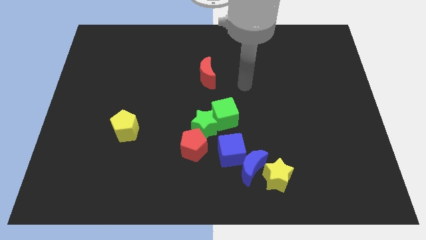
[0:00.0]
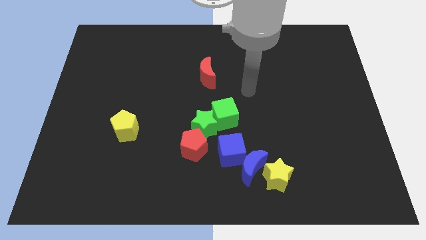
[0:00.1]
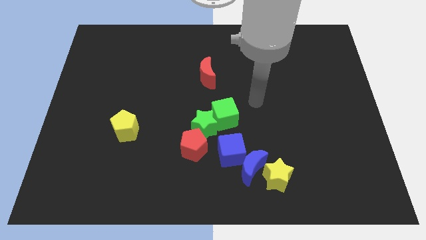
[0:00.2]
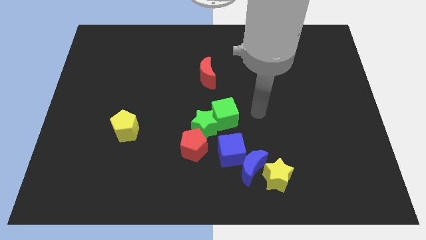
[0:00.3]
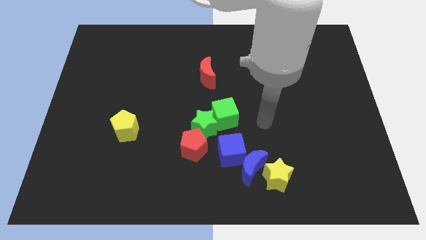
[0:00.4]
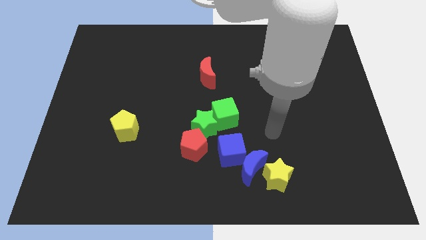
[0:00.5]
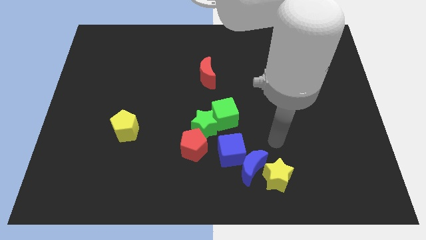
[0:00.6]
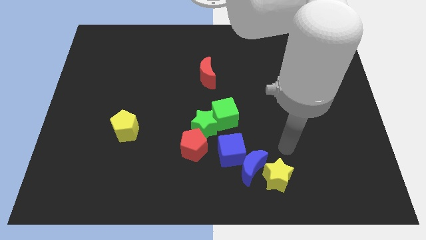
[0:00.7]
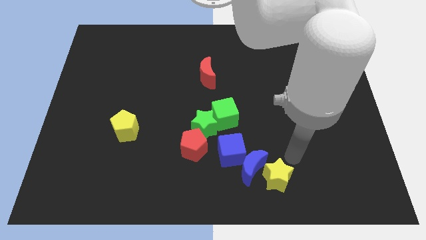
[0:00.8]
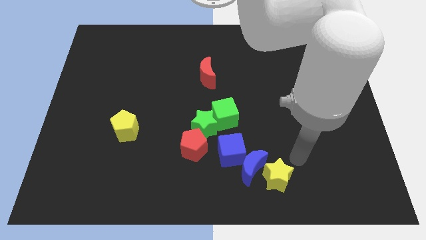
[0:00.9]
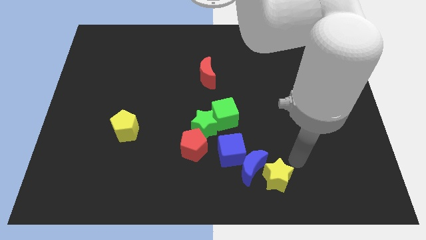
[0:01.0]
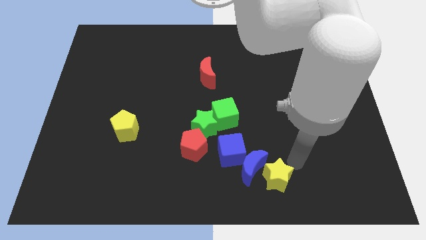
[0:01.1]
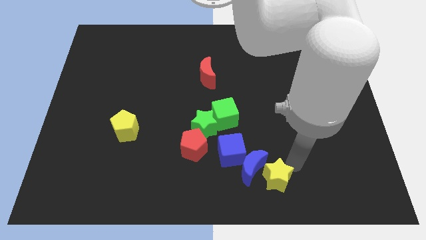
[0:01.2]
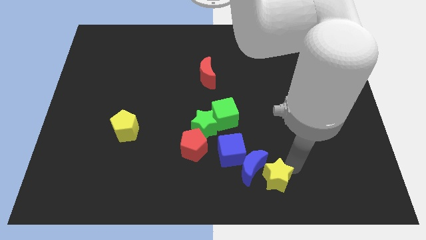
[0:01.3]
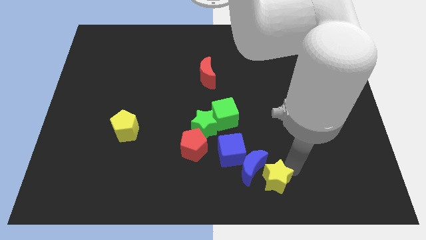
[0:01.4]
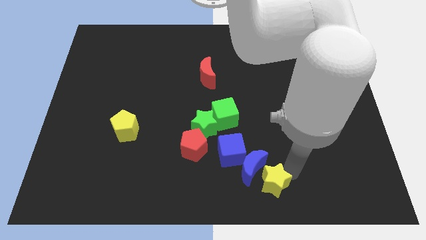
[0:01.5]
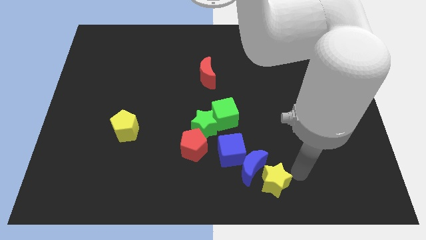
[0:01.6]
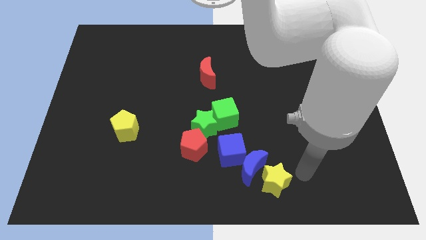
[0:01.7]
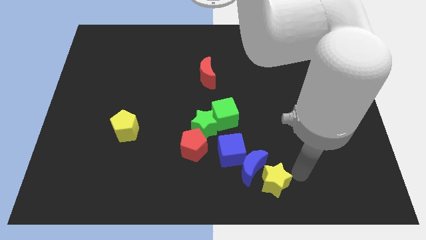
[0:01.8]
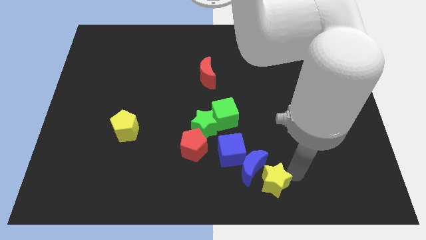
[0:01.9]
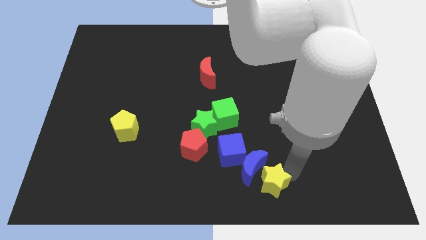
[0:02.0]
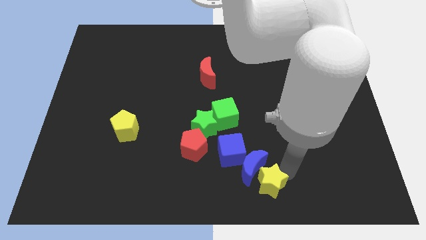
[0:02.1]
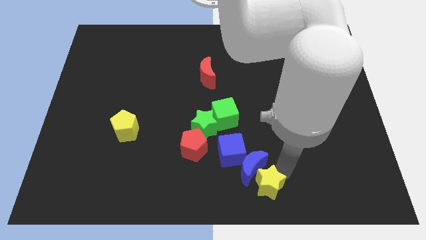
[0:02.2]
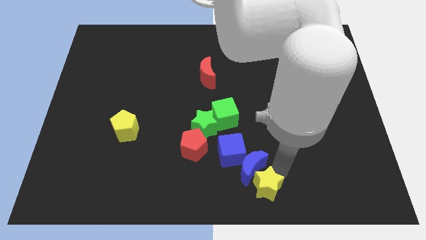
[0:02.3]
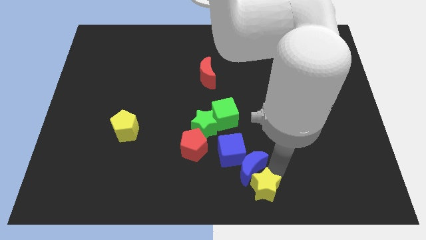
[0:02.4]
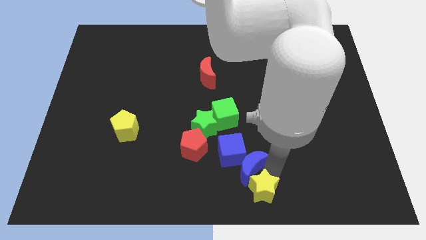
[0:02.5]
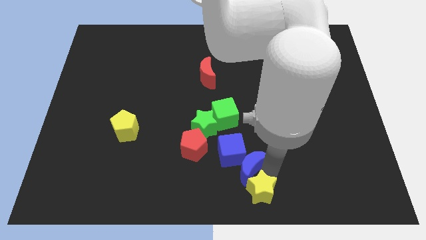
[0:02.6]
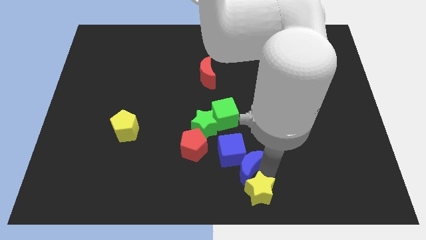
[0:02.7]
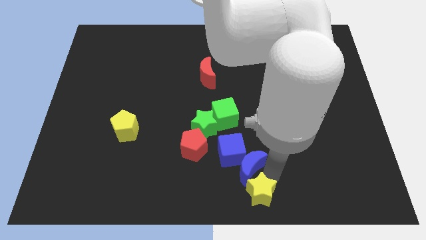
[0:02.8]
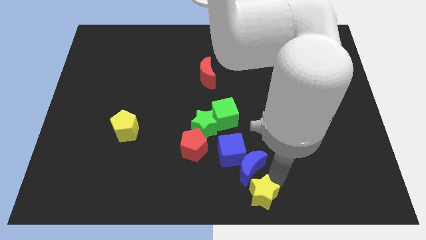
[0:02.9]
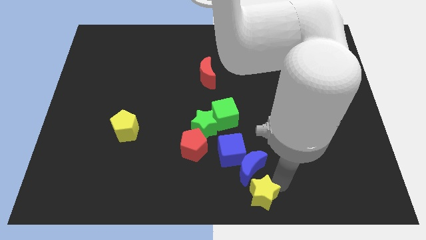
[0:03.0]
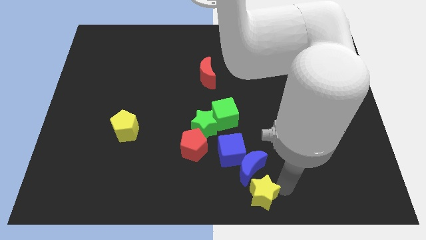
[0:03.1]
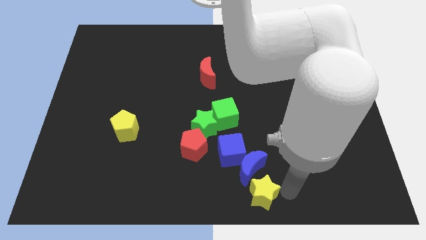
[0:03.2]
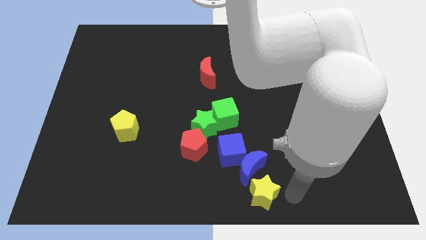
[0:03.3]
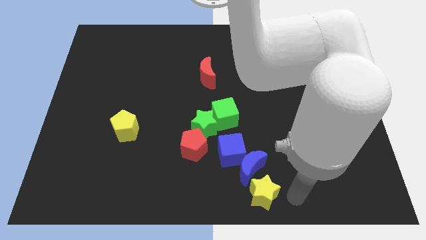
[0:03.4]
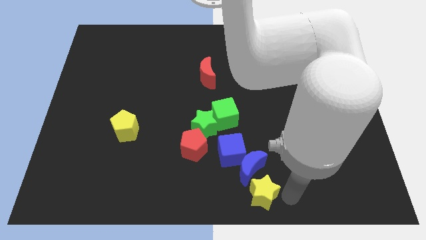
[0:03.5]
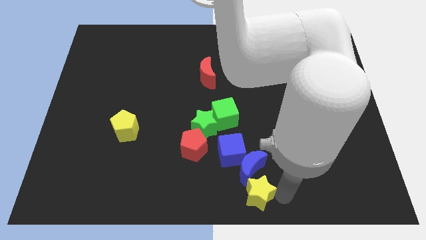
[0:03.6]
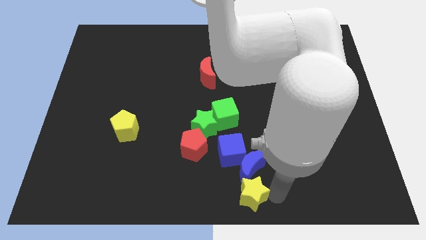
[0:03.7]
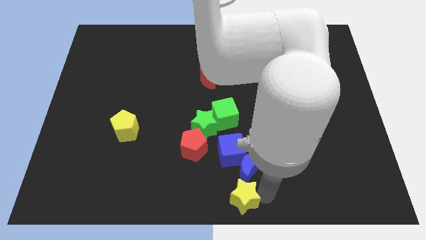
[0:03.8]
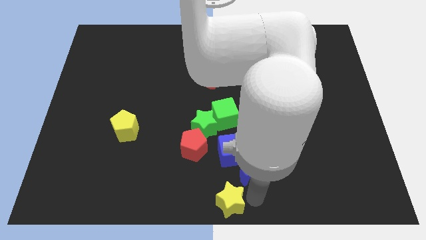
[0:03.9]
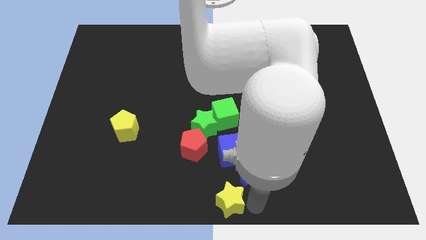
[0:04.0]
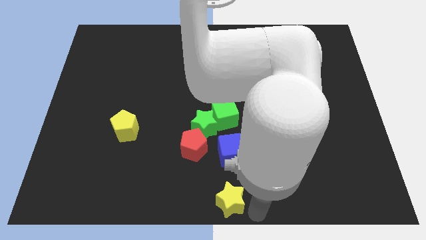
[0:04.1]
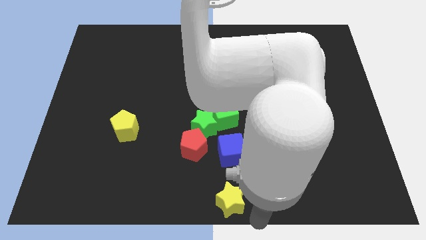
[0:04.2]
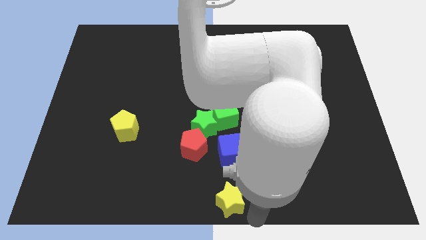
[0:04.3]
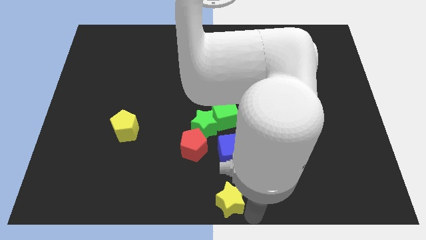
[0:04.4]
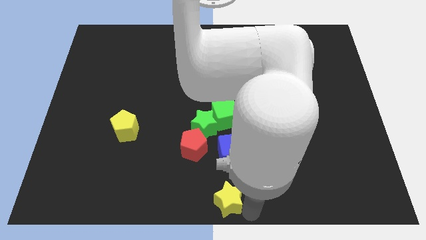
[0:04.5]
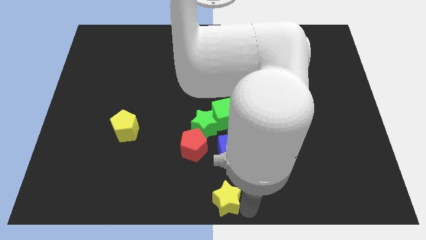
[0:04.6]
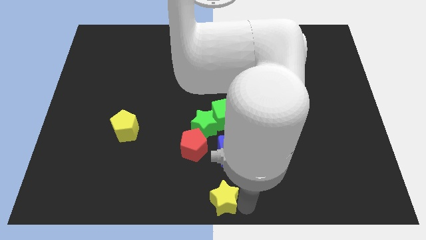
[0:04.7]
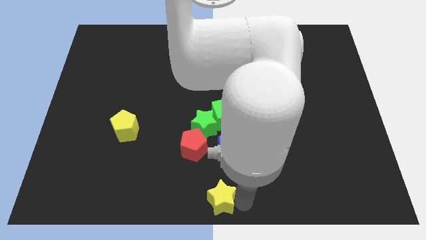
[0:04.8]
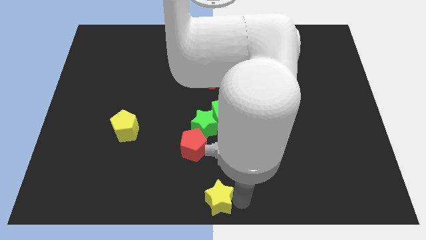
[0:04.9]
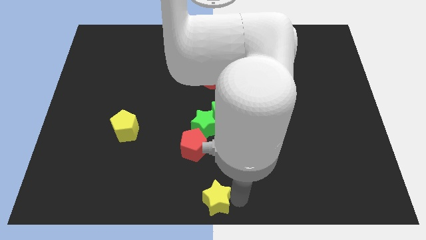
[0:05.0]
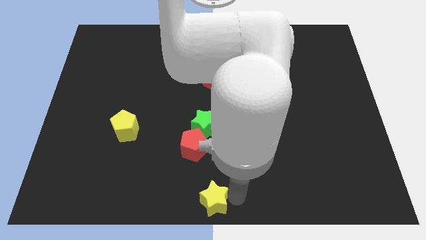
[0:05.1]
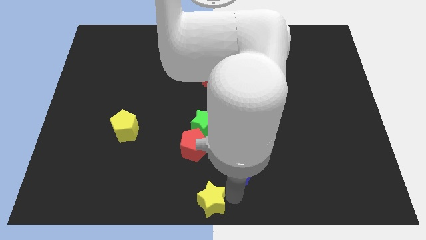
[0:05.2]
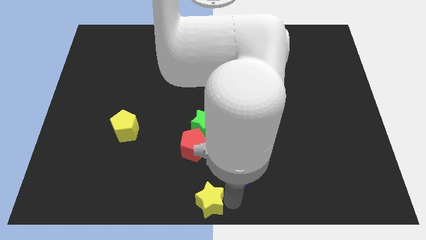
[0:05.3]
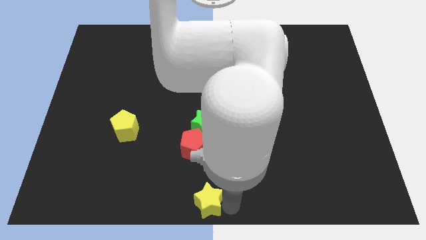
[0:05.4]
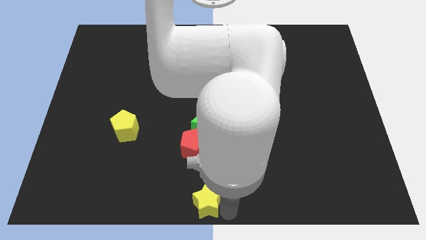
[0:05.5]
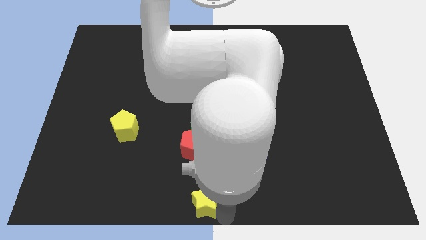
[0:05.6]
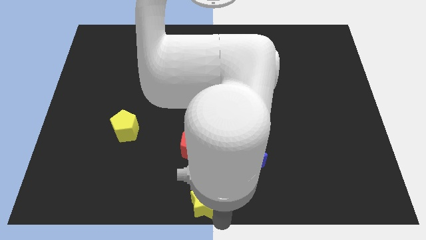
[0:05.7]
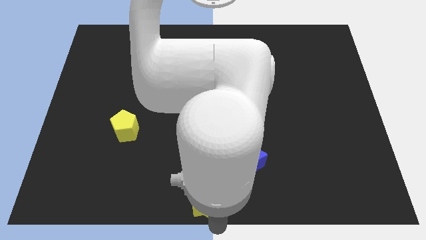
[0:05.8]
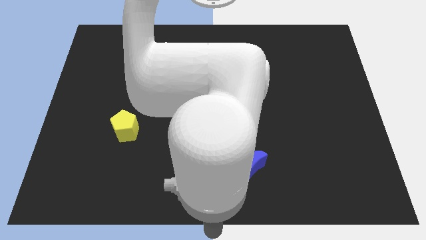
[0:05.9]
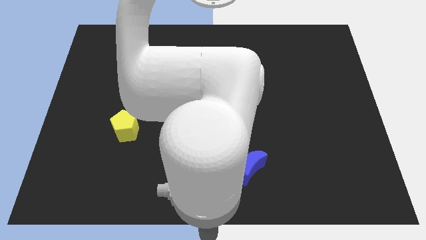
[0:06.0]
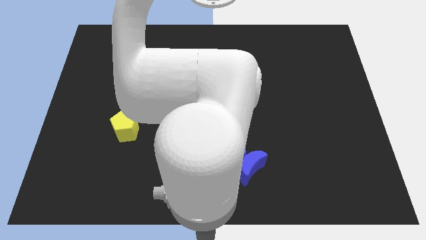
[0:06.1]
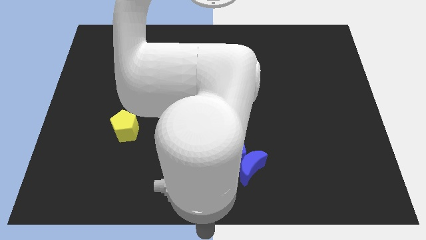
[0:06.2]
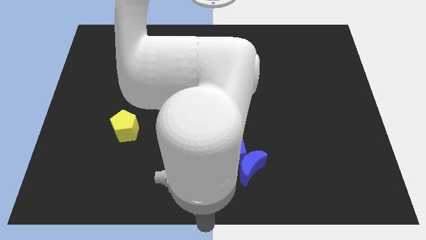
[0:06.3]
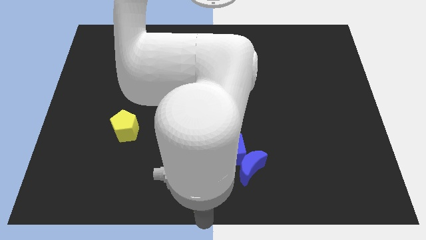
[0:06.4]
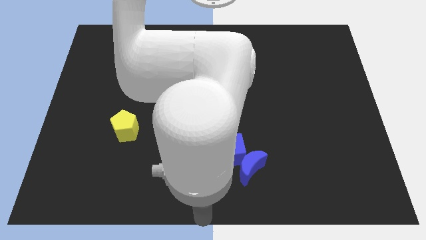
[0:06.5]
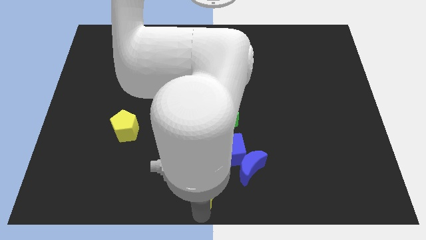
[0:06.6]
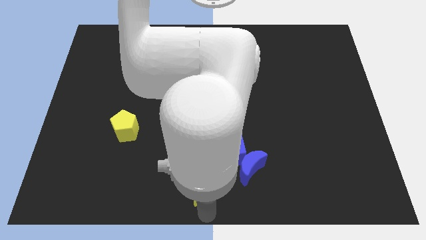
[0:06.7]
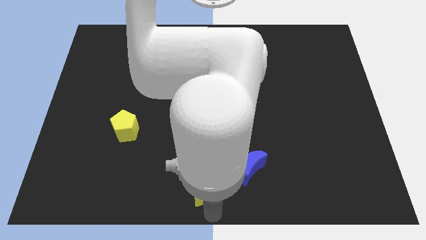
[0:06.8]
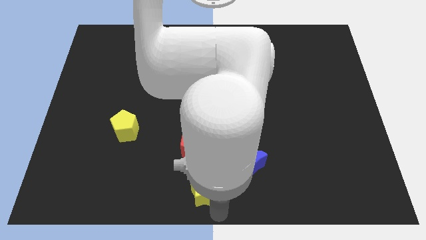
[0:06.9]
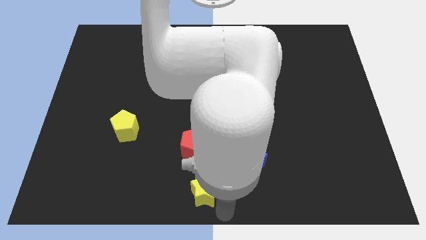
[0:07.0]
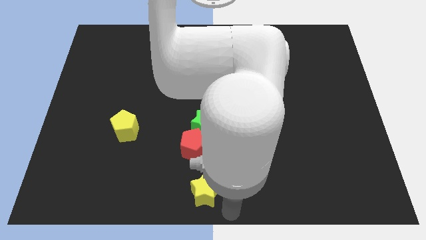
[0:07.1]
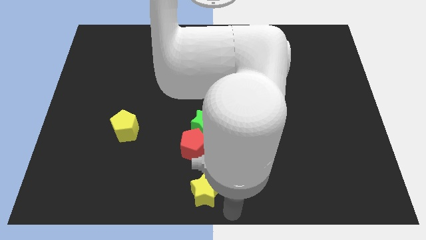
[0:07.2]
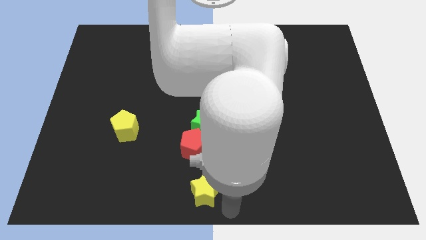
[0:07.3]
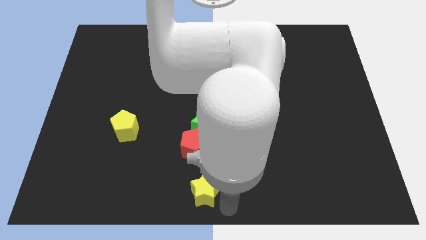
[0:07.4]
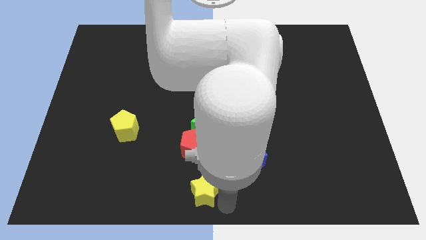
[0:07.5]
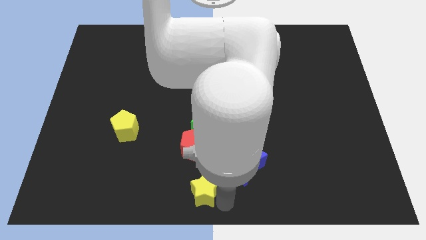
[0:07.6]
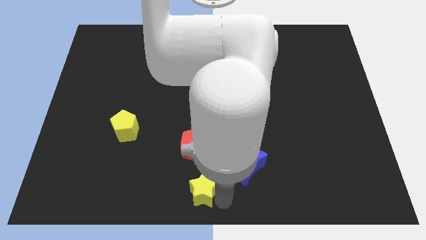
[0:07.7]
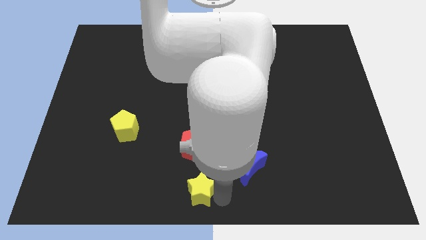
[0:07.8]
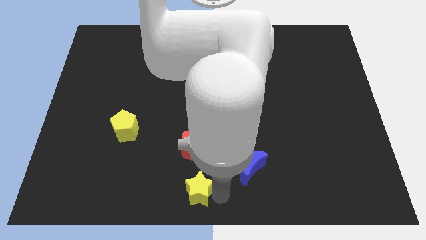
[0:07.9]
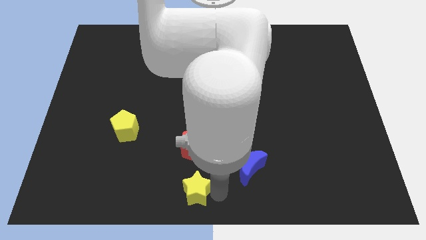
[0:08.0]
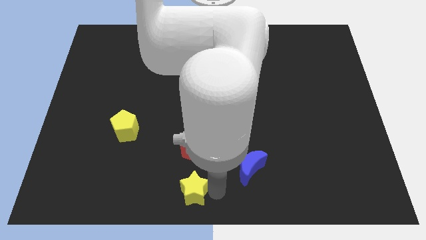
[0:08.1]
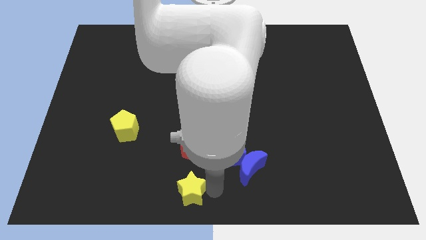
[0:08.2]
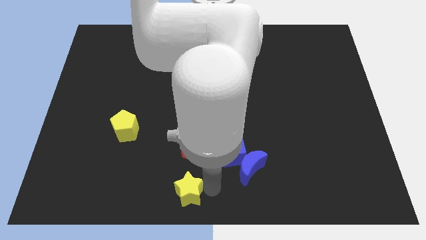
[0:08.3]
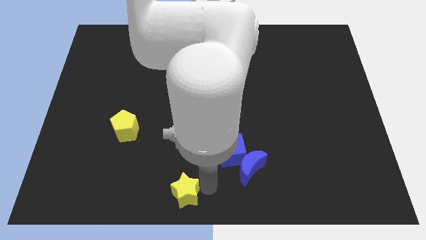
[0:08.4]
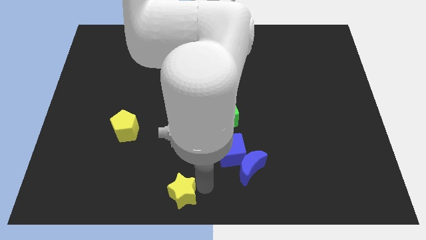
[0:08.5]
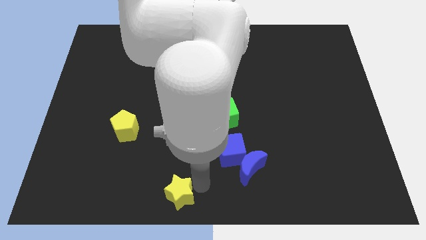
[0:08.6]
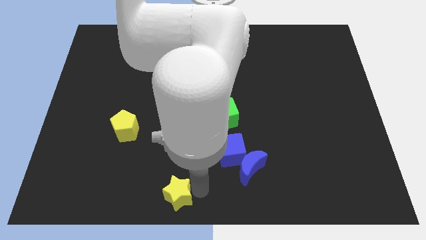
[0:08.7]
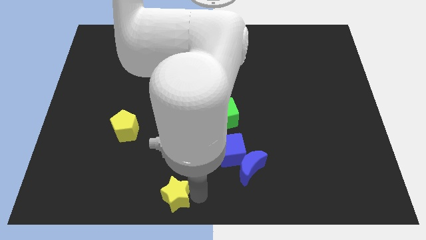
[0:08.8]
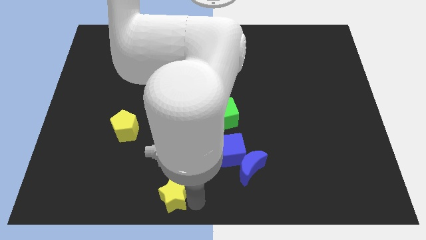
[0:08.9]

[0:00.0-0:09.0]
slide the yellow star left
